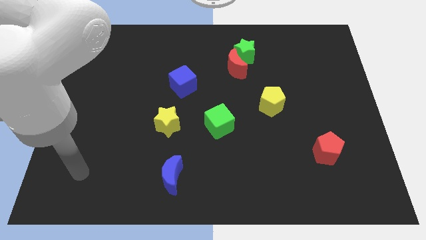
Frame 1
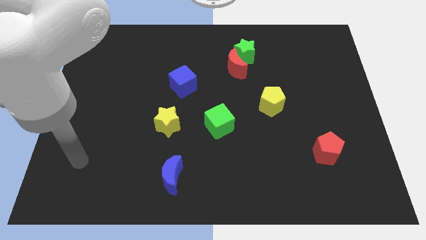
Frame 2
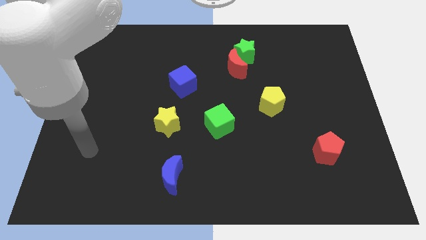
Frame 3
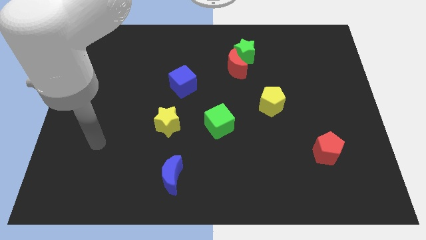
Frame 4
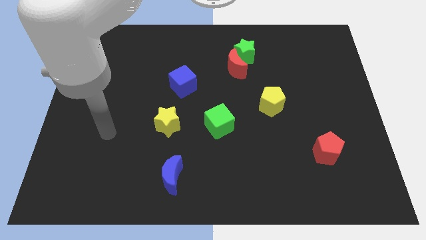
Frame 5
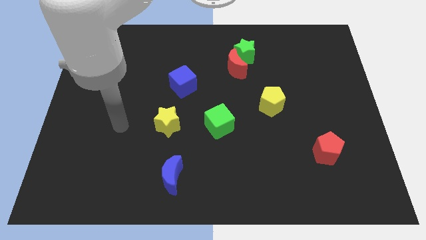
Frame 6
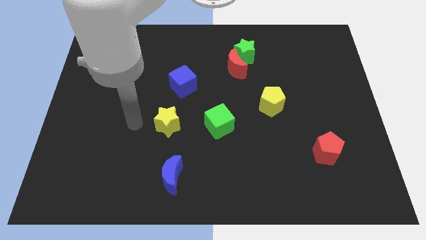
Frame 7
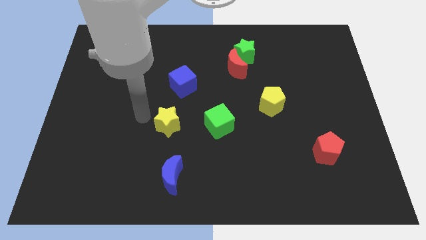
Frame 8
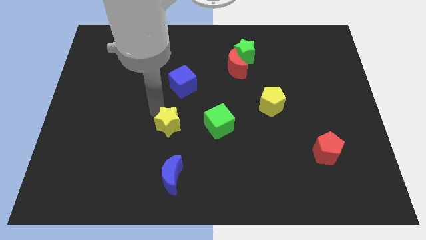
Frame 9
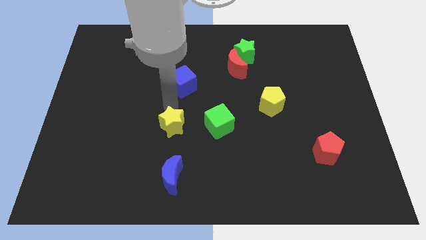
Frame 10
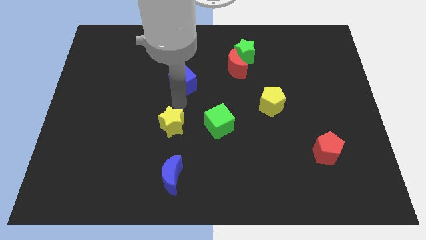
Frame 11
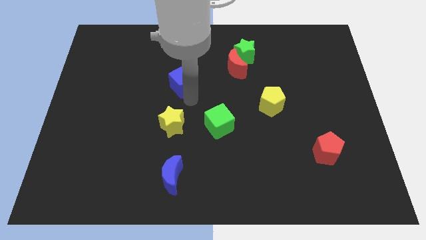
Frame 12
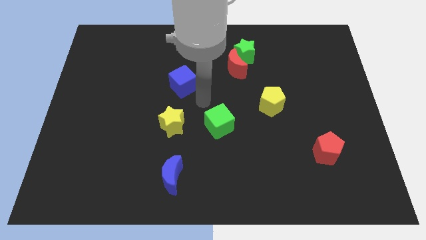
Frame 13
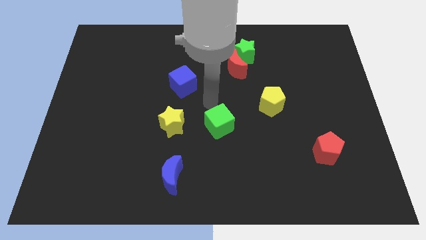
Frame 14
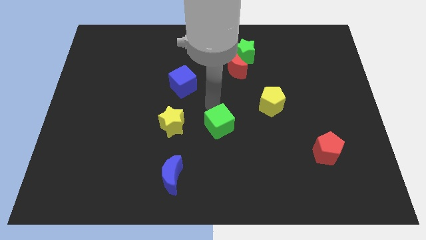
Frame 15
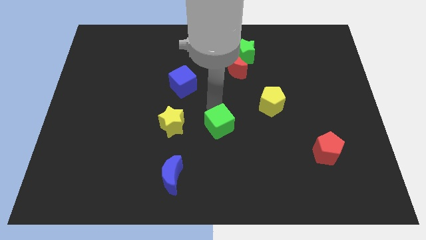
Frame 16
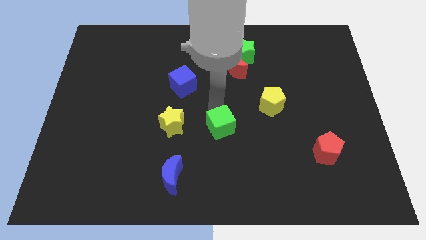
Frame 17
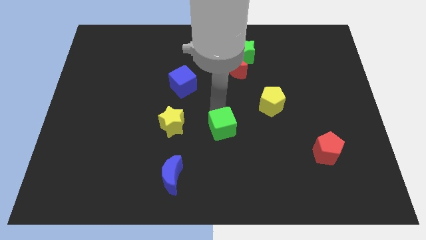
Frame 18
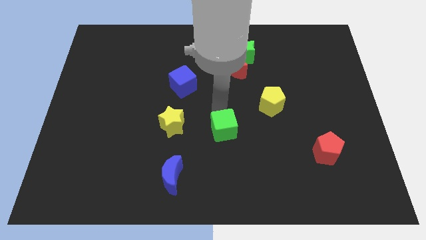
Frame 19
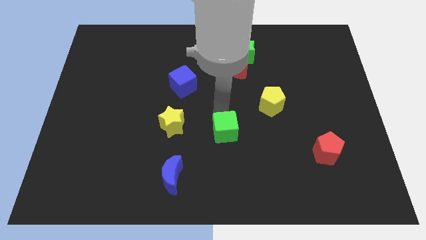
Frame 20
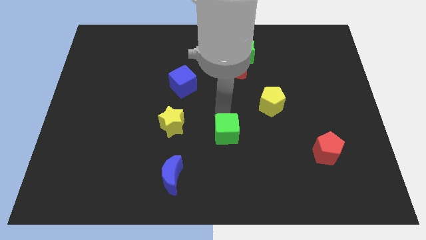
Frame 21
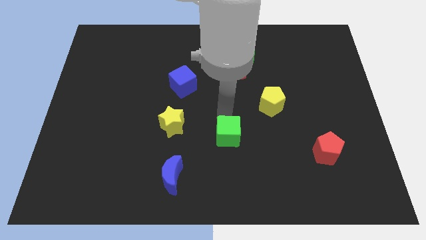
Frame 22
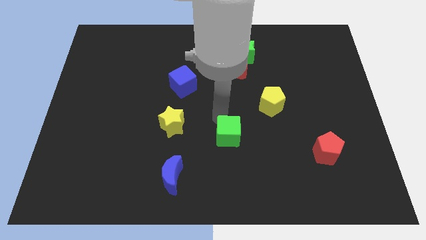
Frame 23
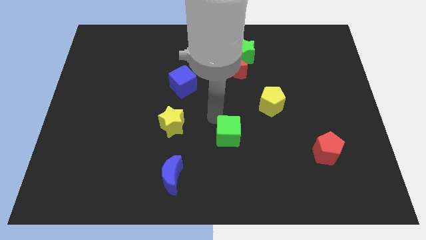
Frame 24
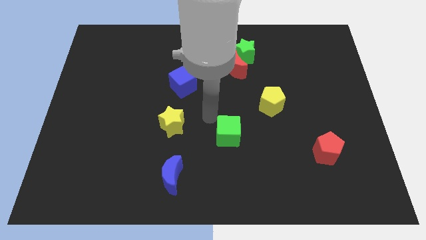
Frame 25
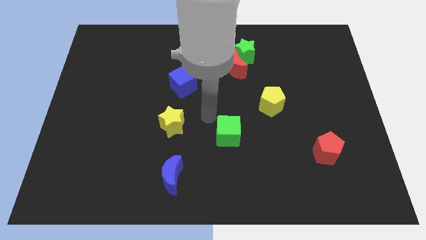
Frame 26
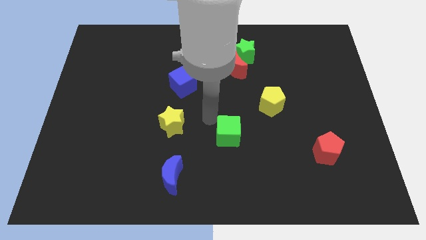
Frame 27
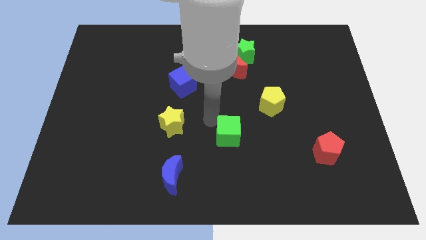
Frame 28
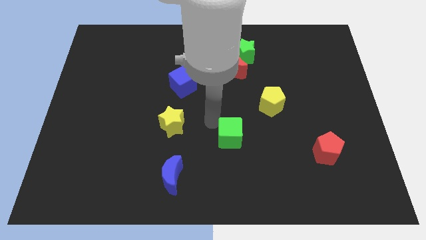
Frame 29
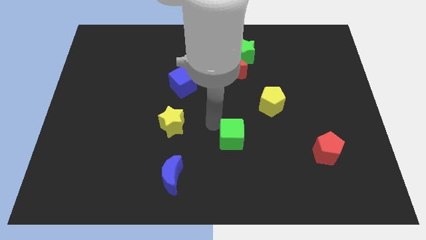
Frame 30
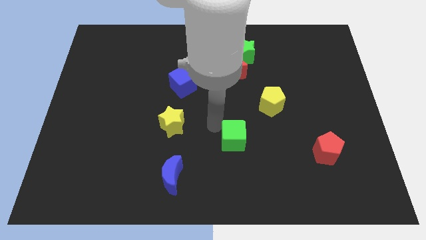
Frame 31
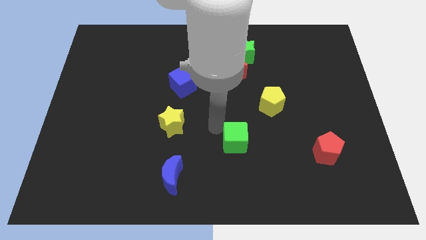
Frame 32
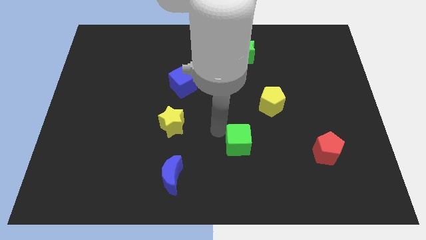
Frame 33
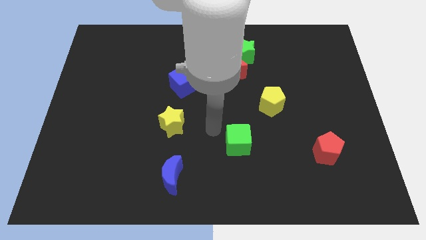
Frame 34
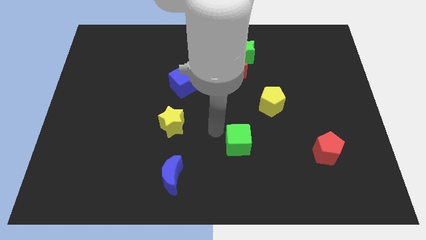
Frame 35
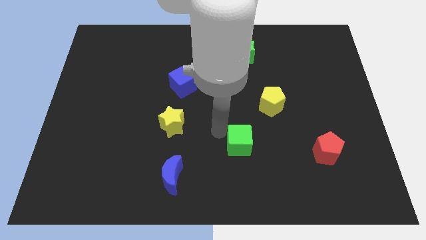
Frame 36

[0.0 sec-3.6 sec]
slide the green cube slightly downwards and to the right

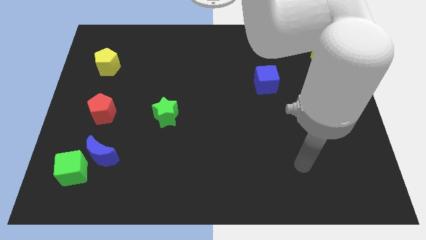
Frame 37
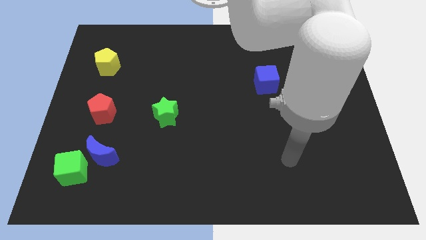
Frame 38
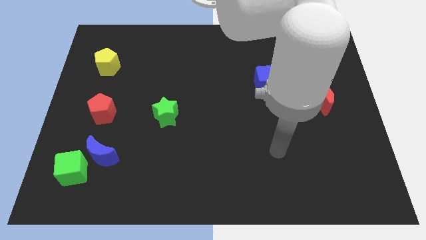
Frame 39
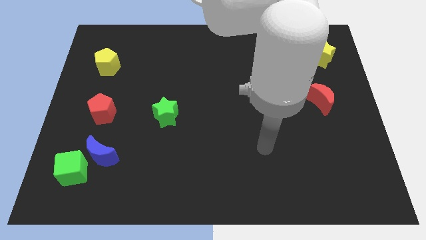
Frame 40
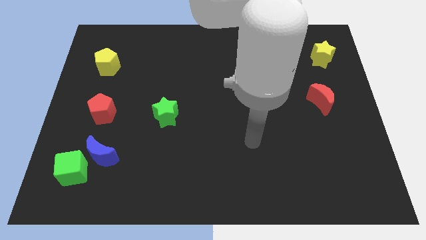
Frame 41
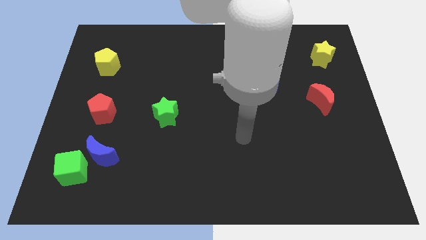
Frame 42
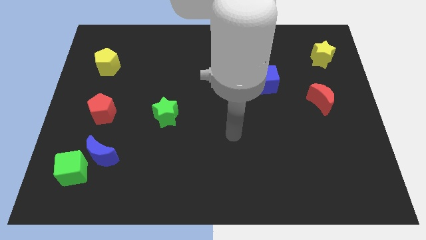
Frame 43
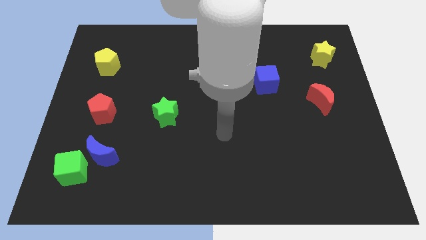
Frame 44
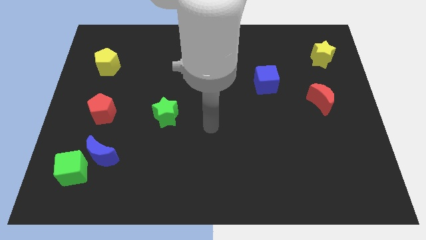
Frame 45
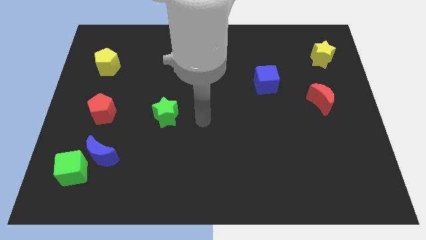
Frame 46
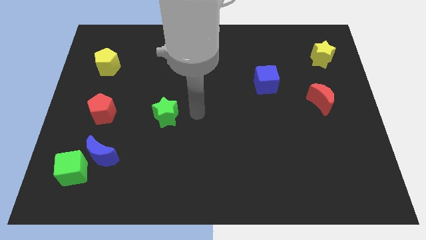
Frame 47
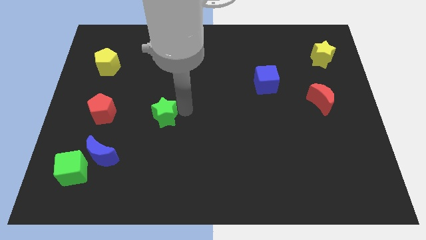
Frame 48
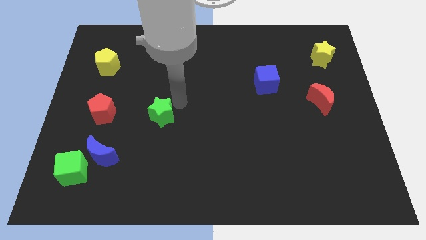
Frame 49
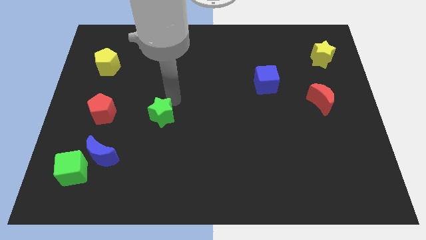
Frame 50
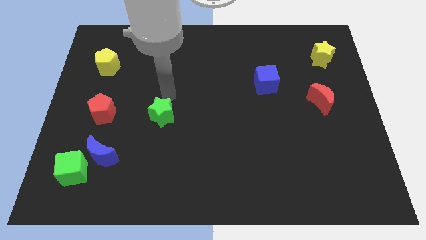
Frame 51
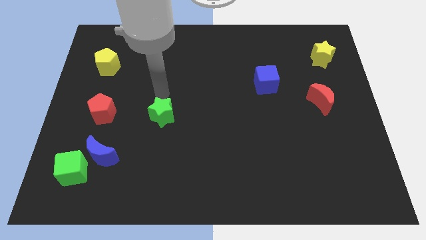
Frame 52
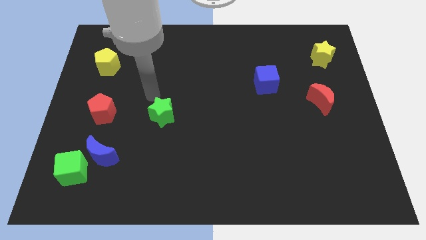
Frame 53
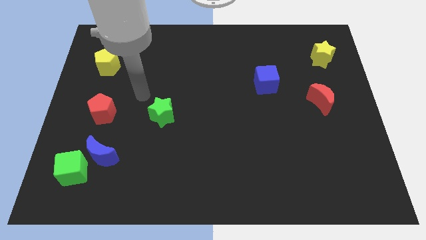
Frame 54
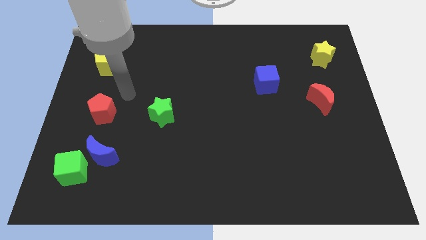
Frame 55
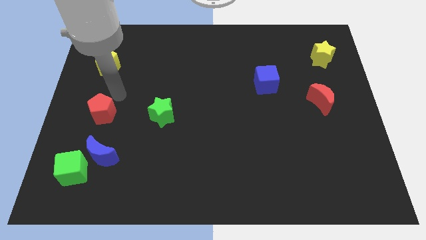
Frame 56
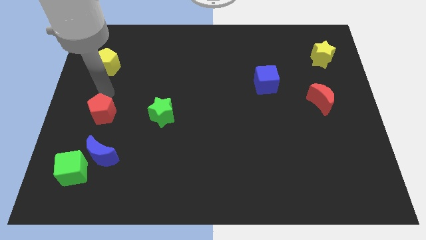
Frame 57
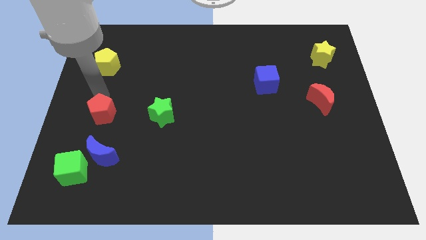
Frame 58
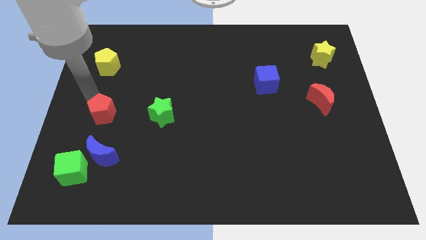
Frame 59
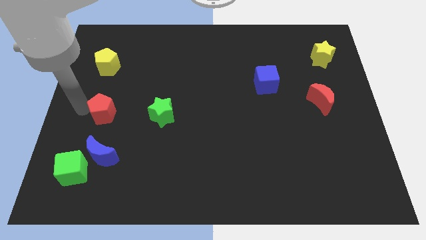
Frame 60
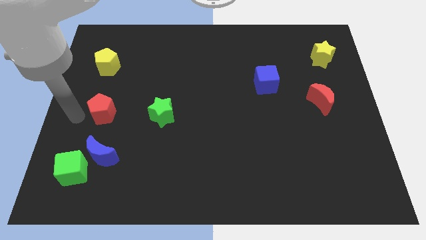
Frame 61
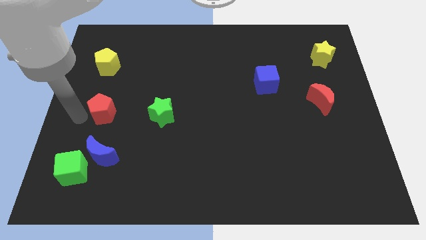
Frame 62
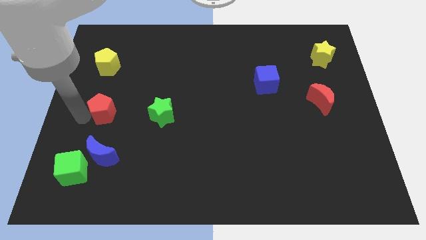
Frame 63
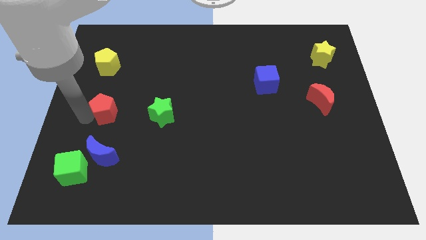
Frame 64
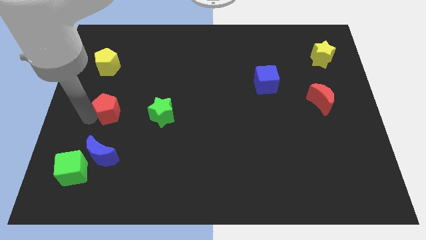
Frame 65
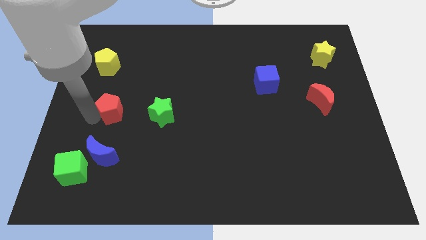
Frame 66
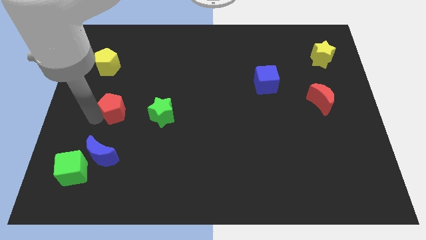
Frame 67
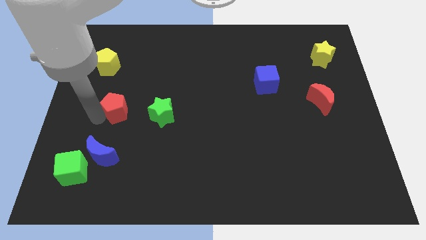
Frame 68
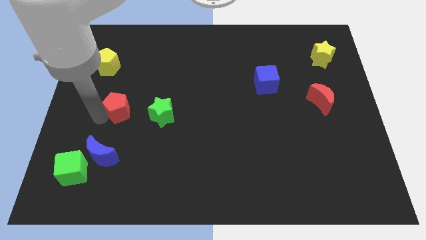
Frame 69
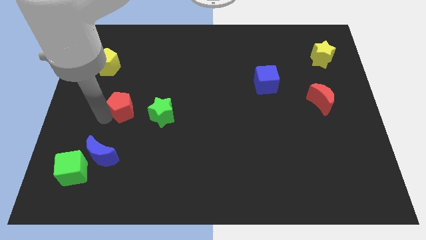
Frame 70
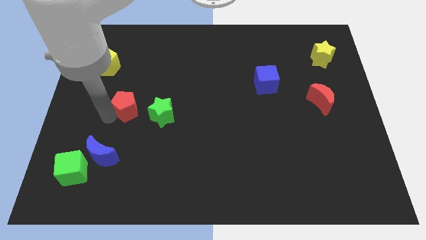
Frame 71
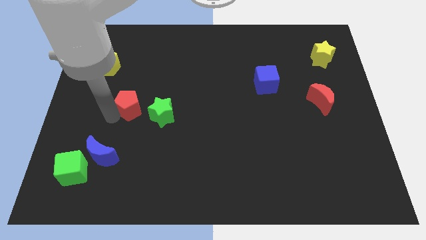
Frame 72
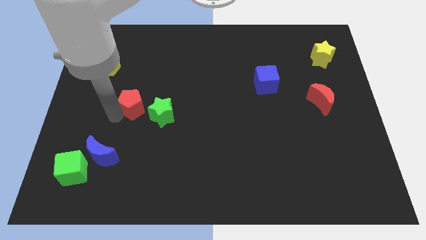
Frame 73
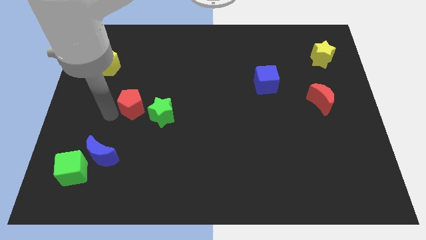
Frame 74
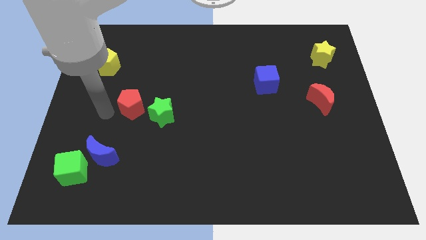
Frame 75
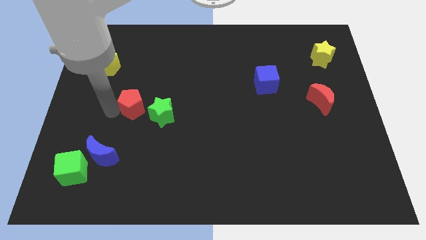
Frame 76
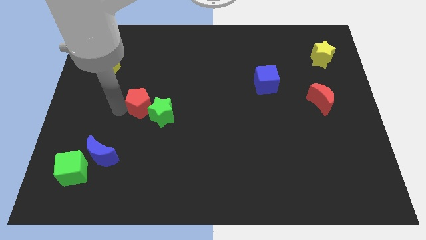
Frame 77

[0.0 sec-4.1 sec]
slide the red pentagon slightly to the right

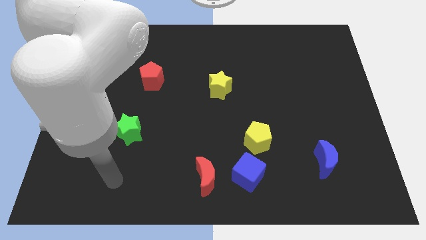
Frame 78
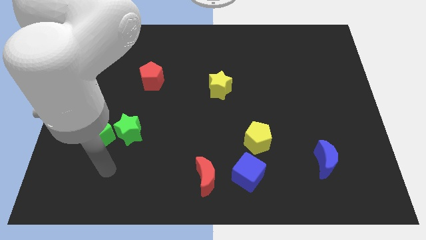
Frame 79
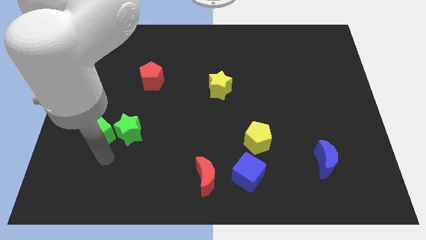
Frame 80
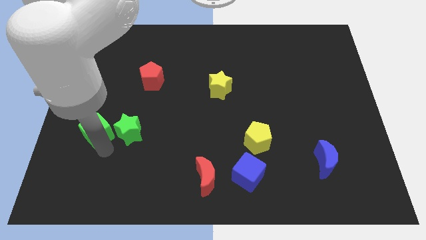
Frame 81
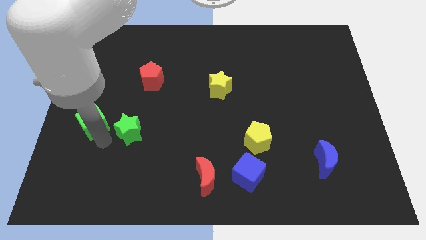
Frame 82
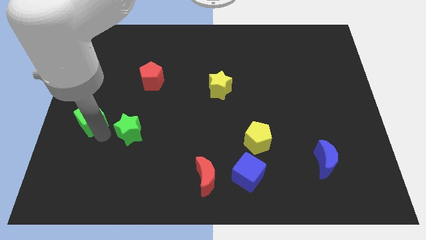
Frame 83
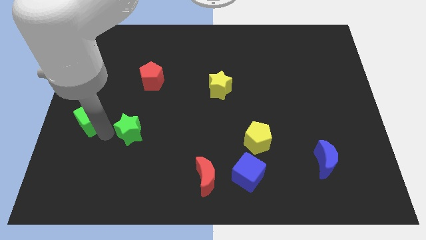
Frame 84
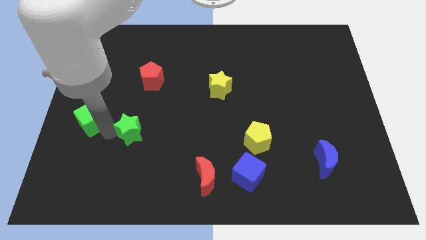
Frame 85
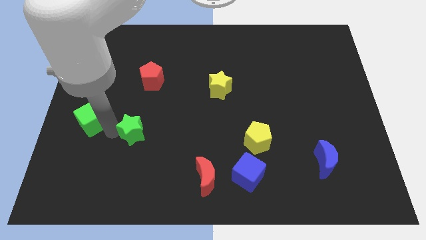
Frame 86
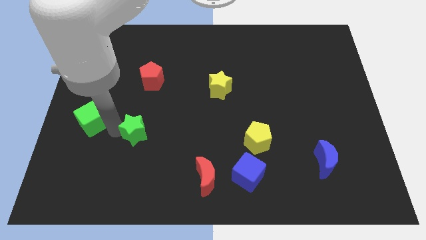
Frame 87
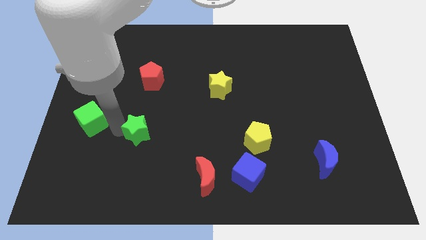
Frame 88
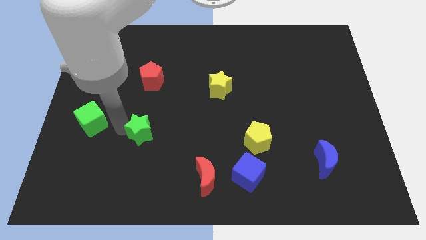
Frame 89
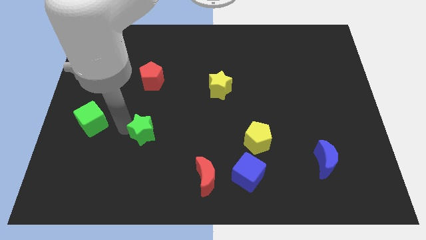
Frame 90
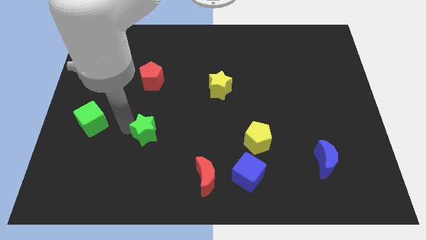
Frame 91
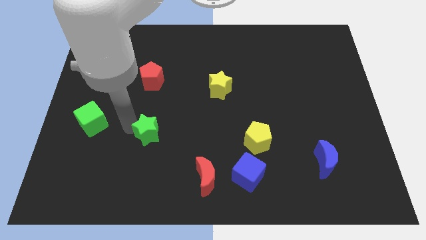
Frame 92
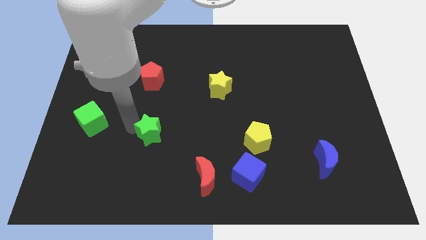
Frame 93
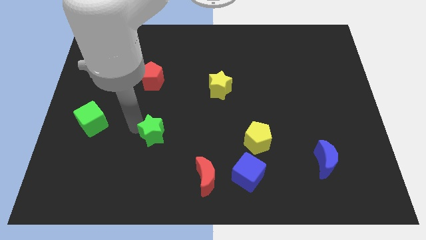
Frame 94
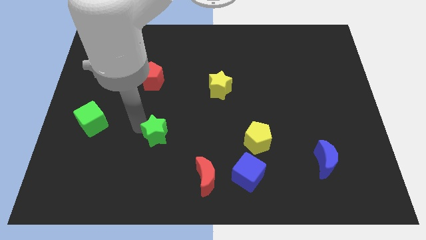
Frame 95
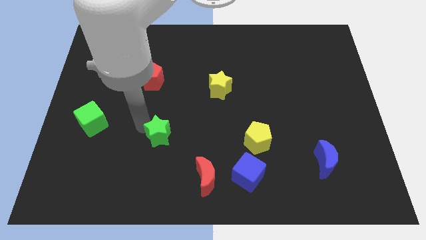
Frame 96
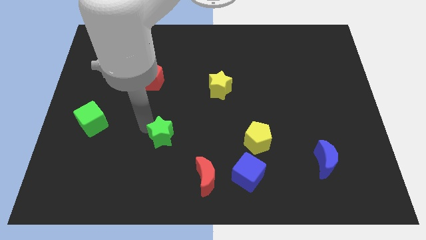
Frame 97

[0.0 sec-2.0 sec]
move the green star to the right a little bit
